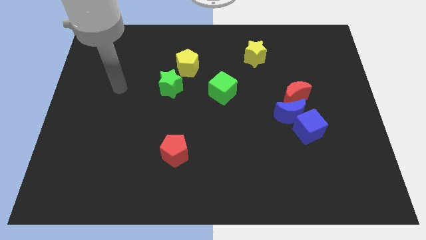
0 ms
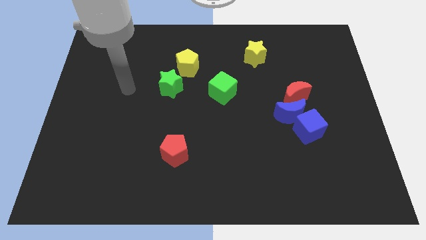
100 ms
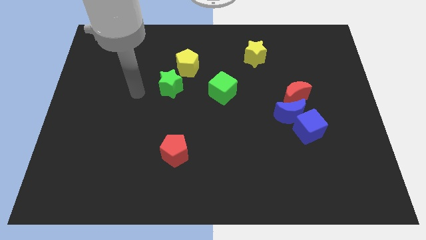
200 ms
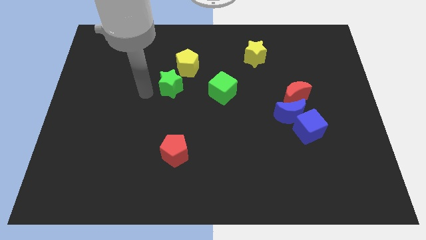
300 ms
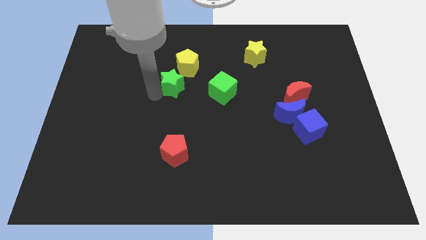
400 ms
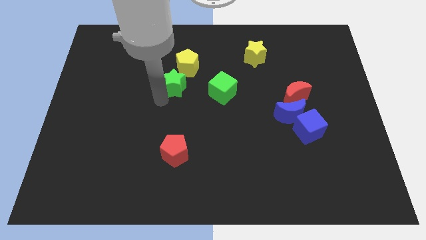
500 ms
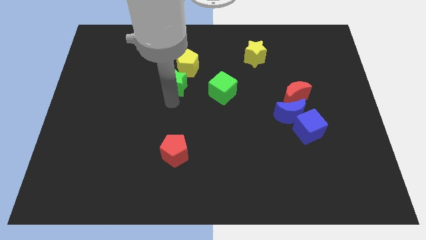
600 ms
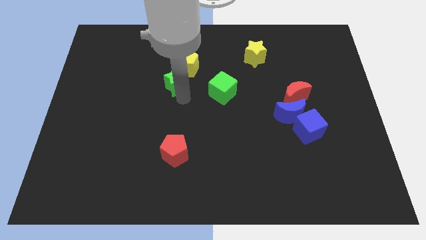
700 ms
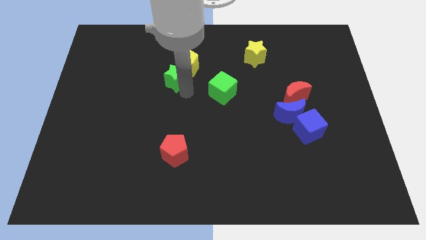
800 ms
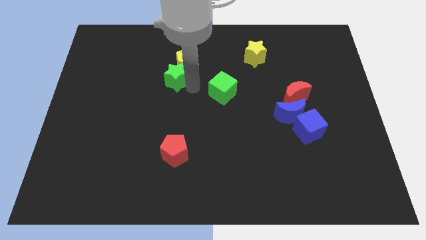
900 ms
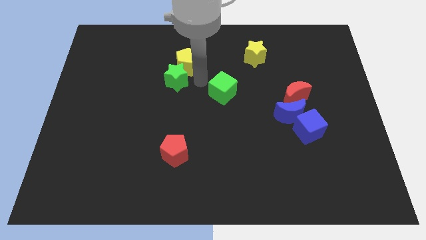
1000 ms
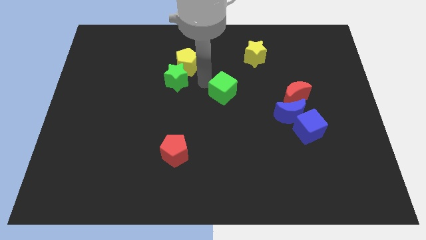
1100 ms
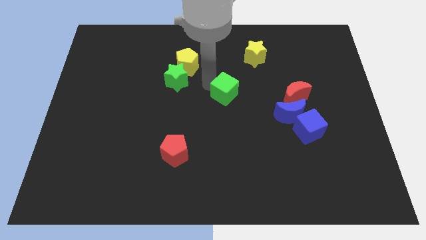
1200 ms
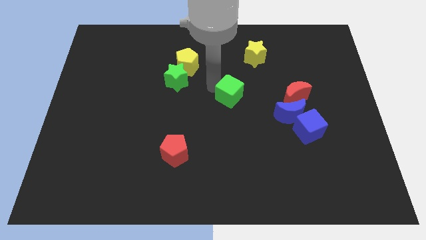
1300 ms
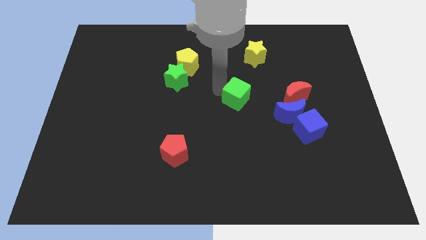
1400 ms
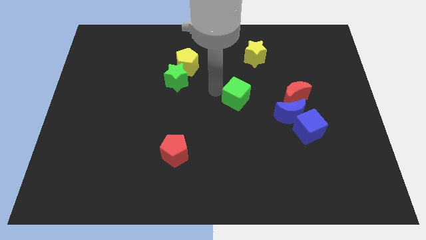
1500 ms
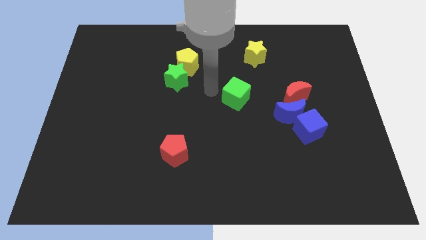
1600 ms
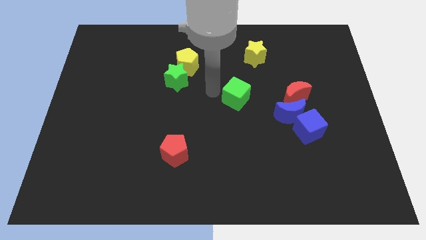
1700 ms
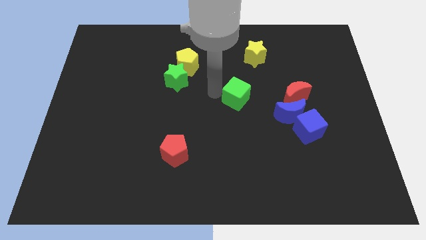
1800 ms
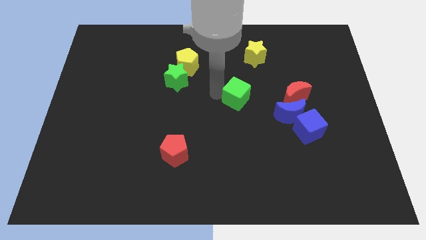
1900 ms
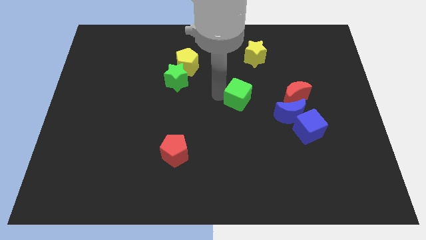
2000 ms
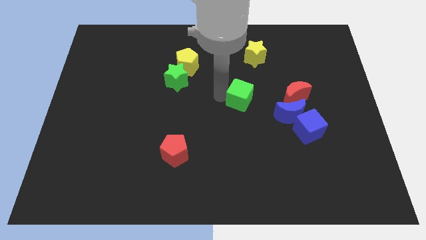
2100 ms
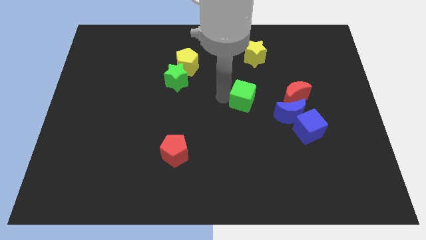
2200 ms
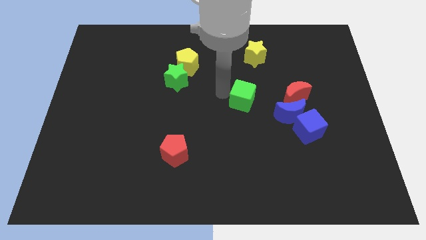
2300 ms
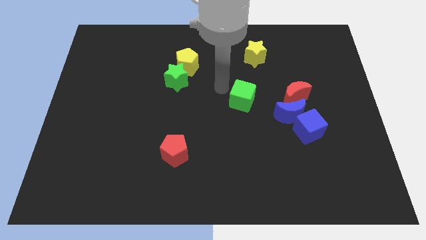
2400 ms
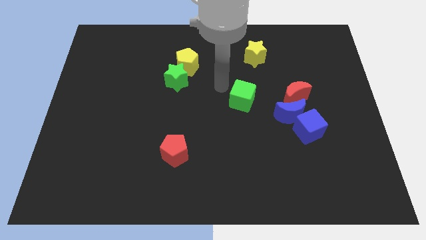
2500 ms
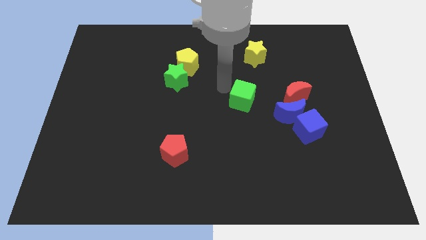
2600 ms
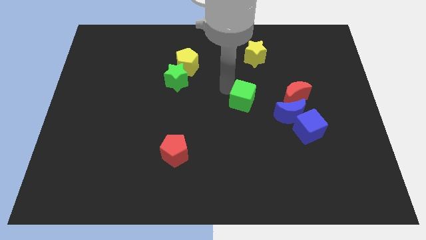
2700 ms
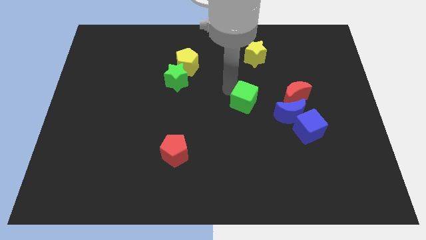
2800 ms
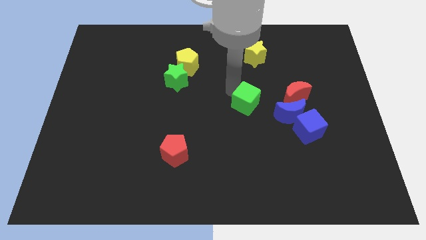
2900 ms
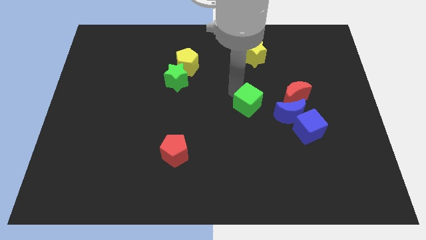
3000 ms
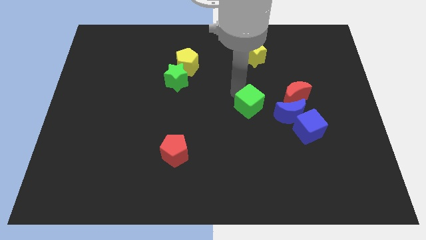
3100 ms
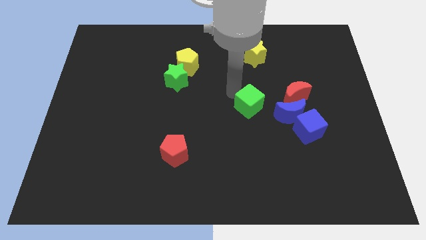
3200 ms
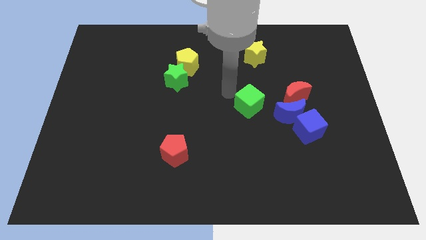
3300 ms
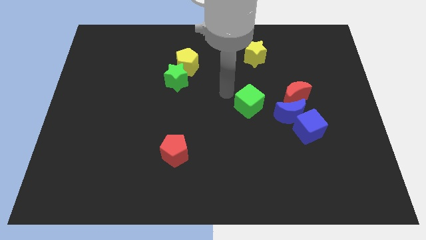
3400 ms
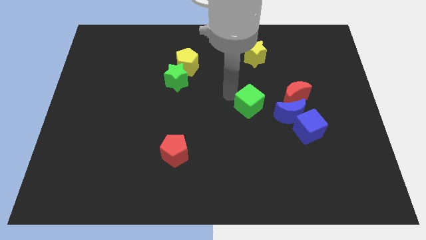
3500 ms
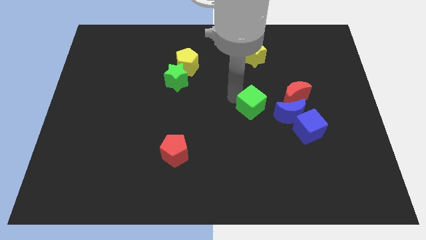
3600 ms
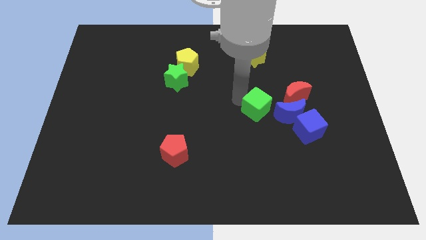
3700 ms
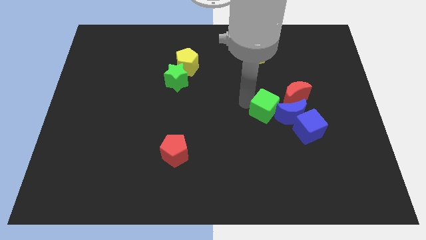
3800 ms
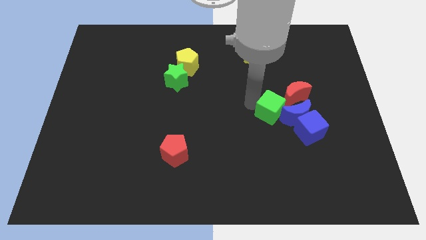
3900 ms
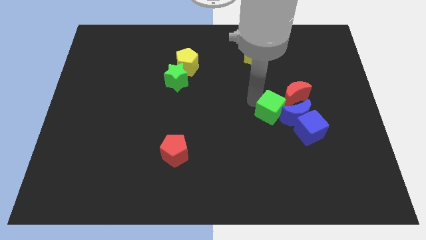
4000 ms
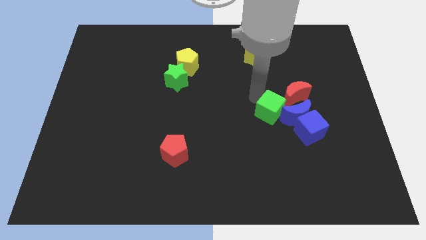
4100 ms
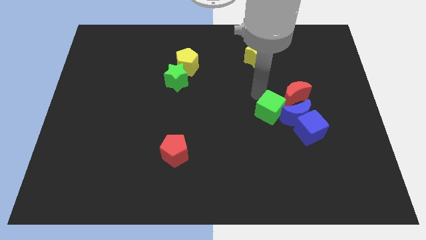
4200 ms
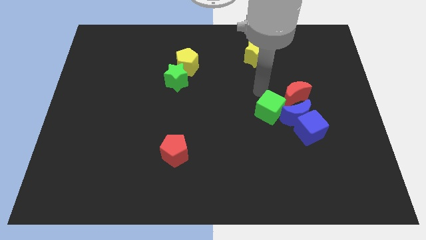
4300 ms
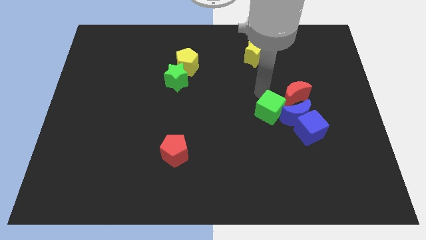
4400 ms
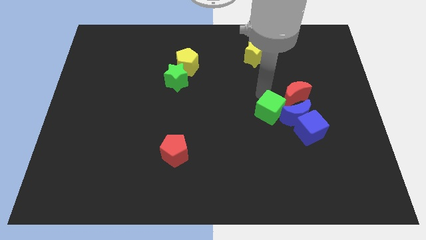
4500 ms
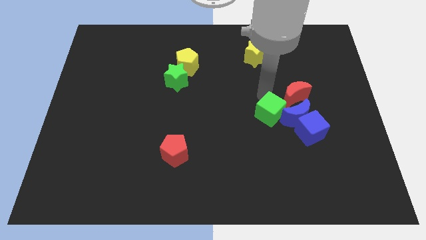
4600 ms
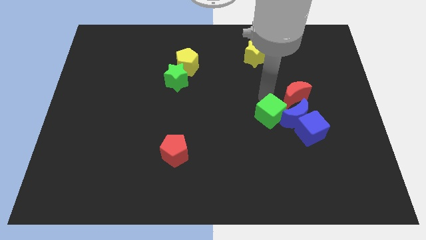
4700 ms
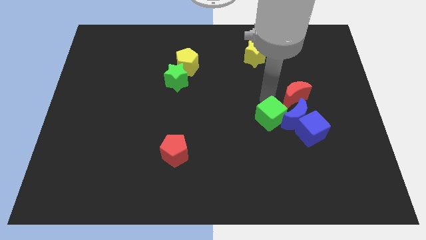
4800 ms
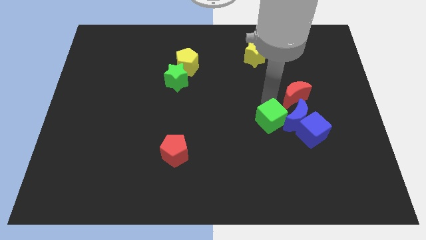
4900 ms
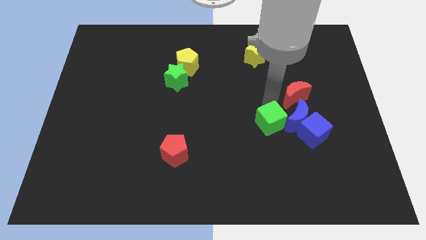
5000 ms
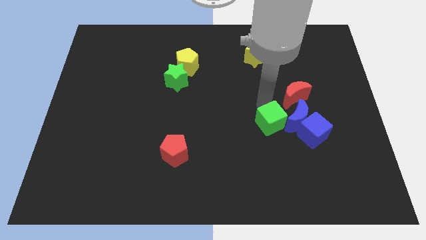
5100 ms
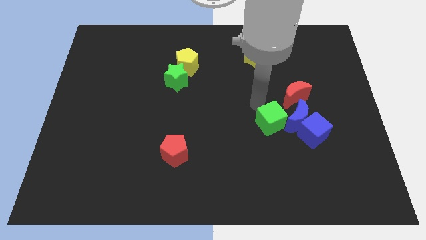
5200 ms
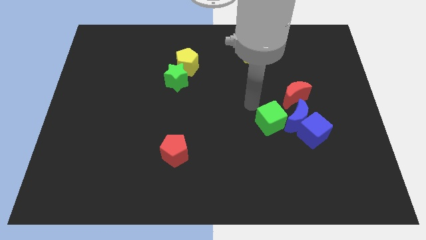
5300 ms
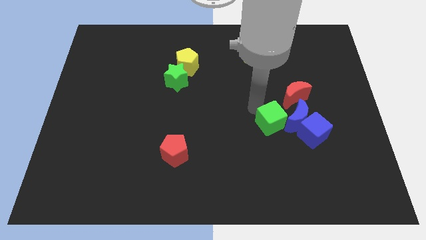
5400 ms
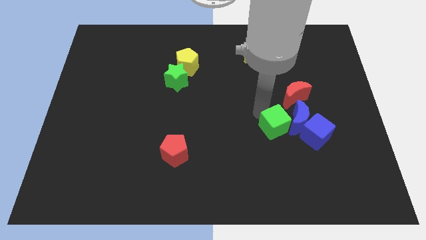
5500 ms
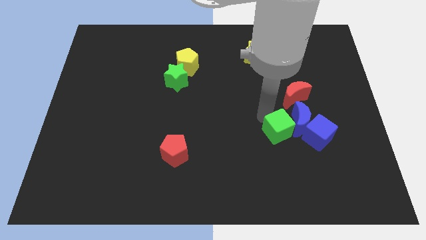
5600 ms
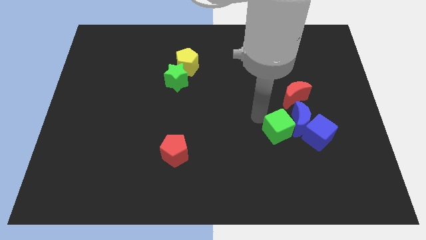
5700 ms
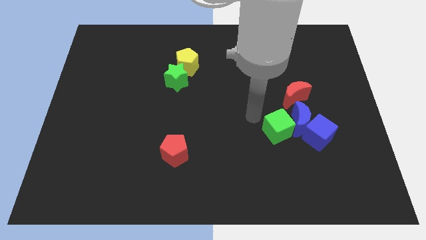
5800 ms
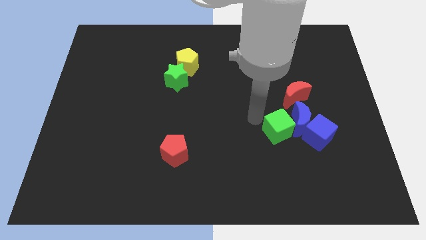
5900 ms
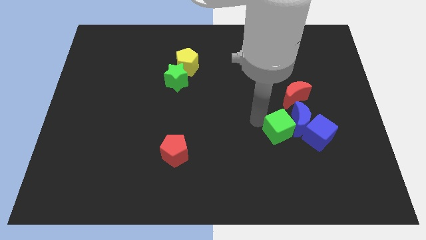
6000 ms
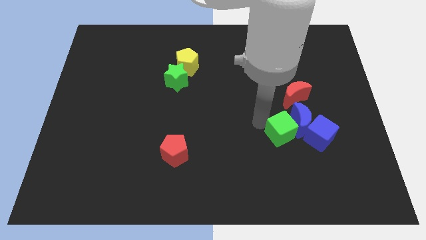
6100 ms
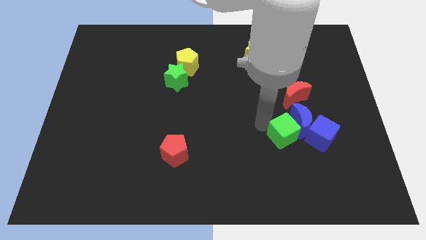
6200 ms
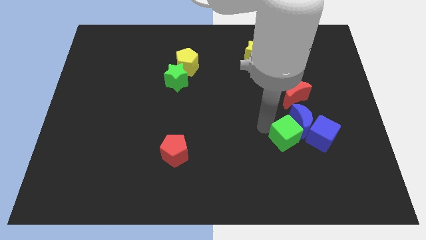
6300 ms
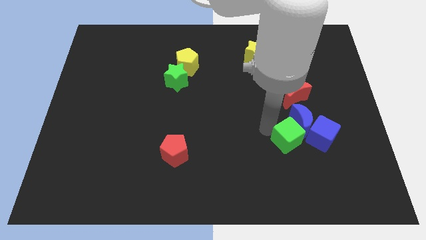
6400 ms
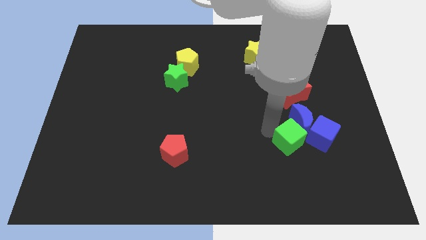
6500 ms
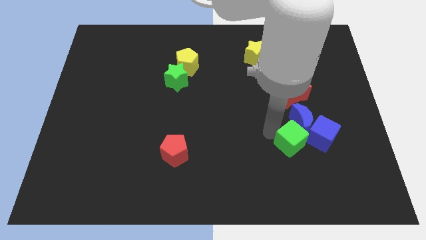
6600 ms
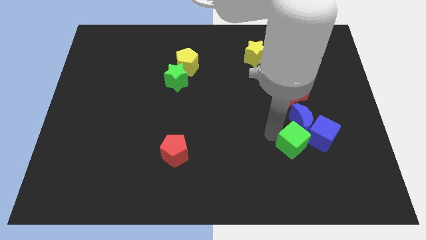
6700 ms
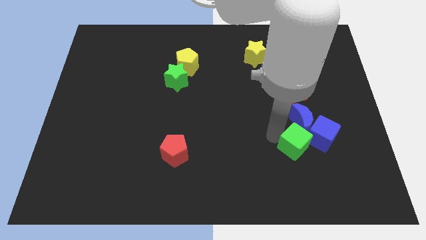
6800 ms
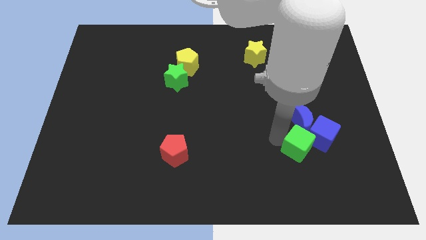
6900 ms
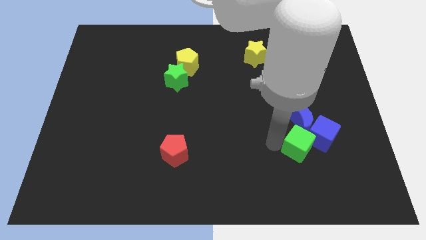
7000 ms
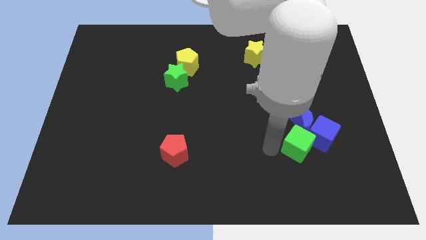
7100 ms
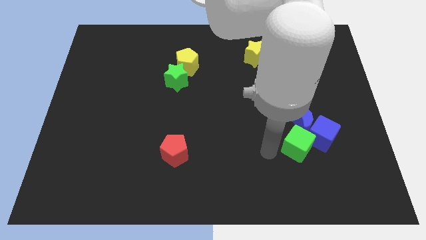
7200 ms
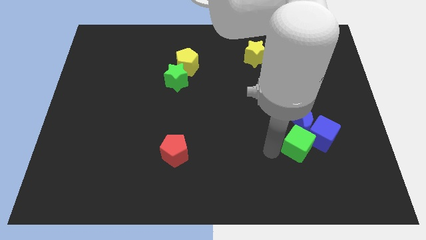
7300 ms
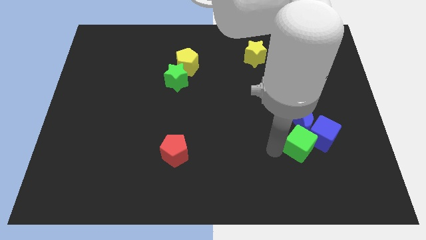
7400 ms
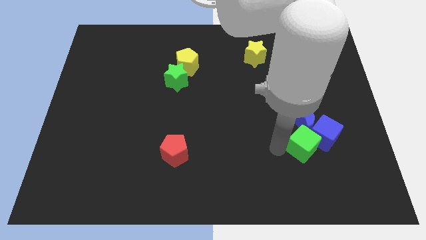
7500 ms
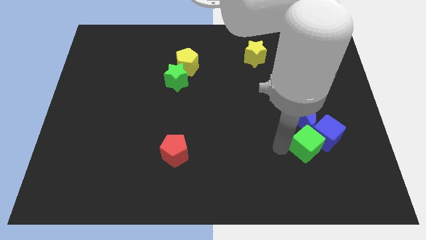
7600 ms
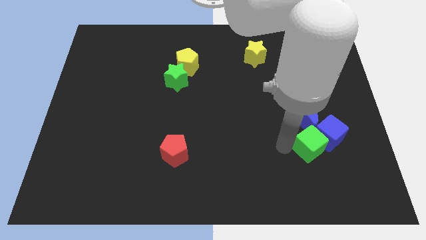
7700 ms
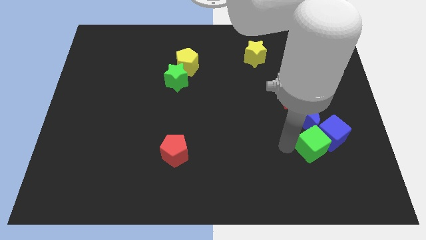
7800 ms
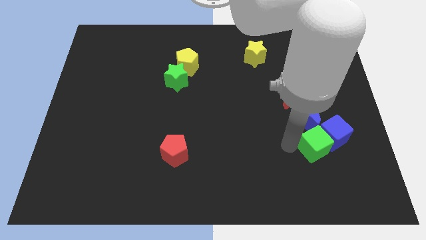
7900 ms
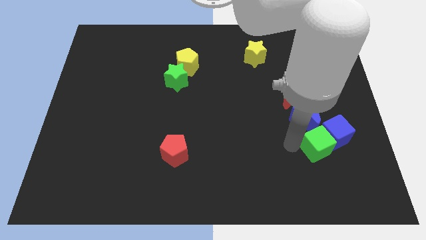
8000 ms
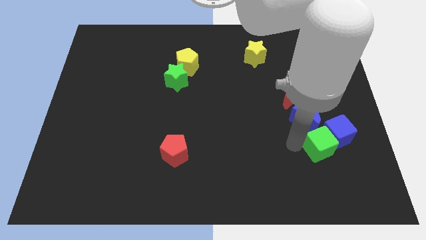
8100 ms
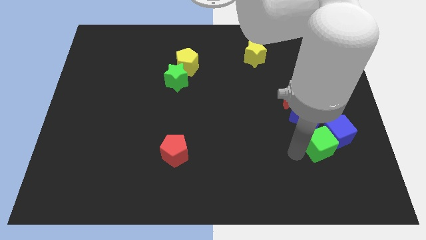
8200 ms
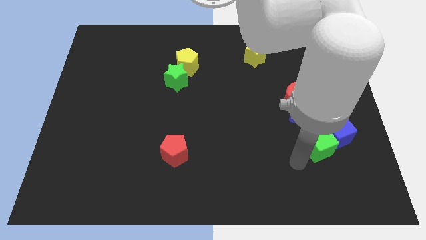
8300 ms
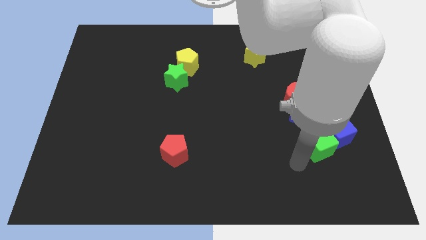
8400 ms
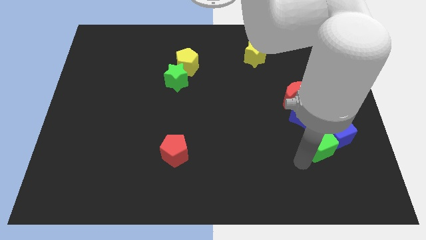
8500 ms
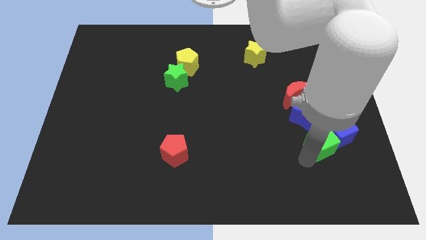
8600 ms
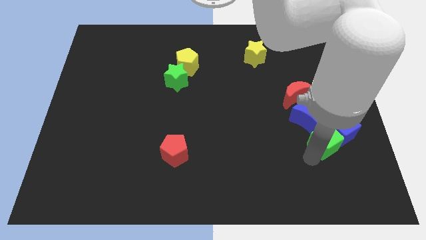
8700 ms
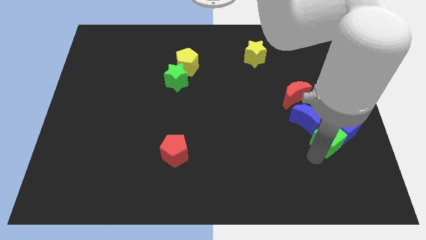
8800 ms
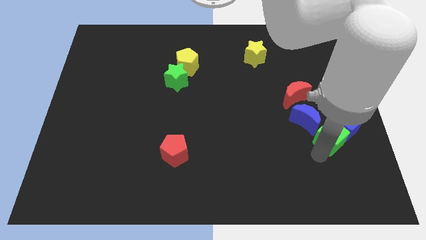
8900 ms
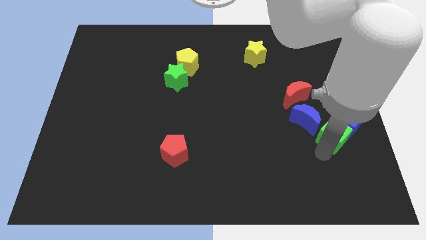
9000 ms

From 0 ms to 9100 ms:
slide the green cube right of the blue moon
